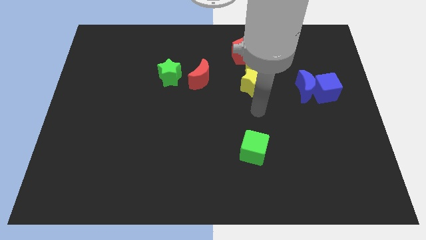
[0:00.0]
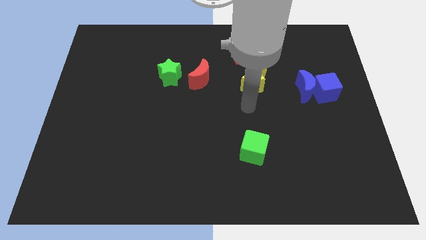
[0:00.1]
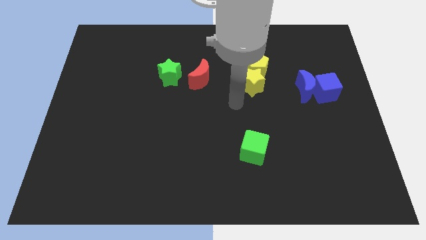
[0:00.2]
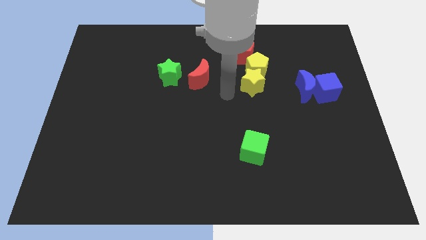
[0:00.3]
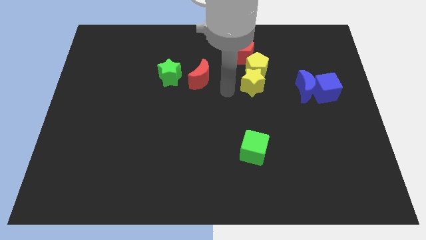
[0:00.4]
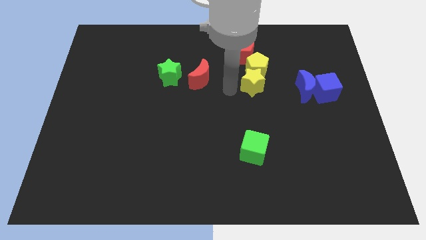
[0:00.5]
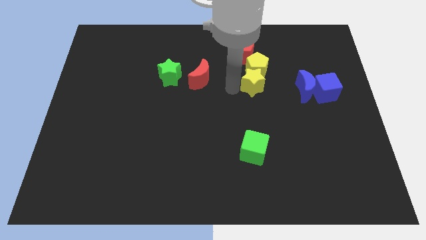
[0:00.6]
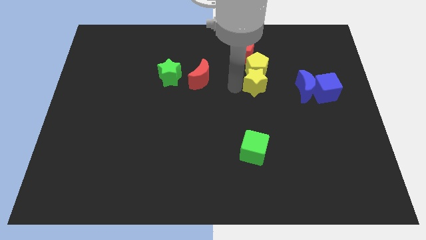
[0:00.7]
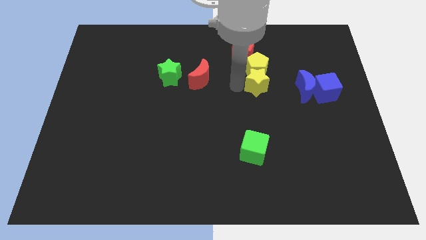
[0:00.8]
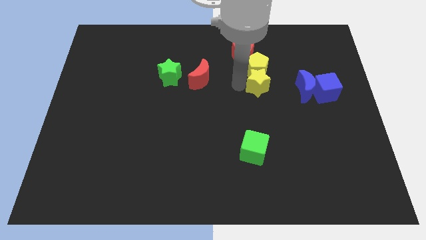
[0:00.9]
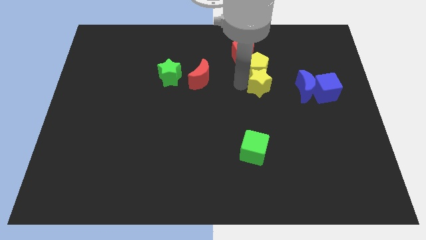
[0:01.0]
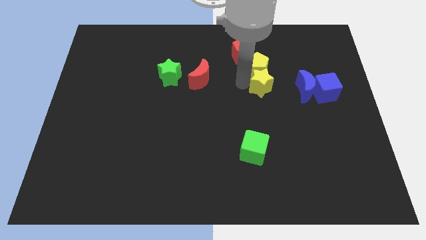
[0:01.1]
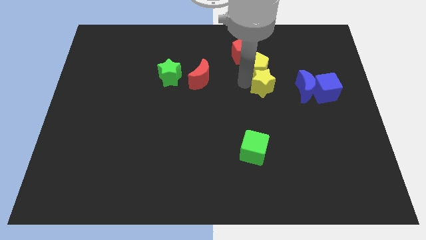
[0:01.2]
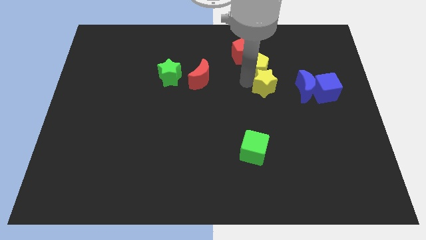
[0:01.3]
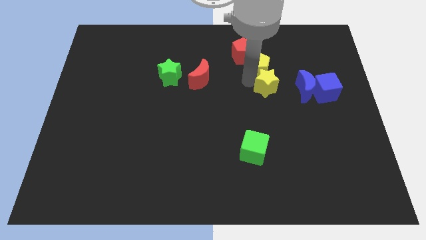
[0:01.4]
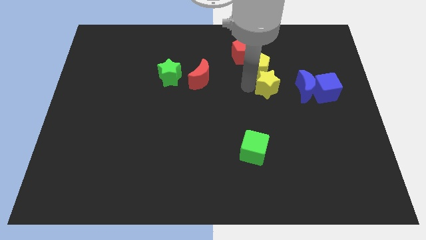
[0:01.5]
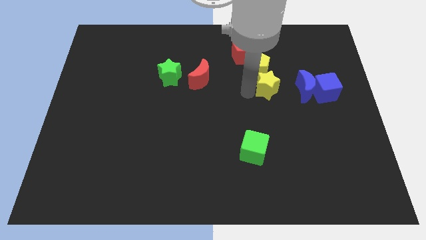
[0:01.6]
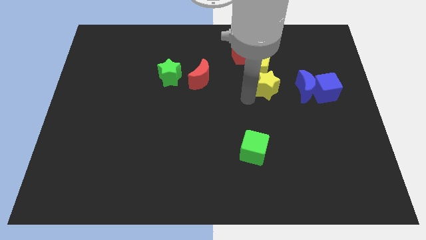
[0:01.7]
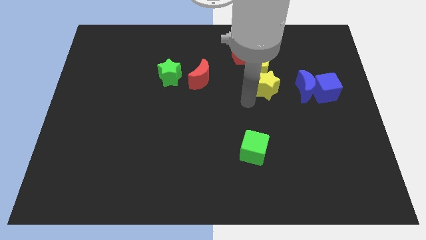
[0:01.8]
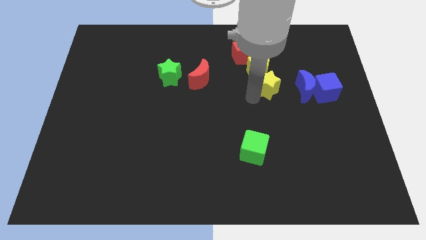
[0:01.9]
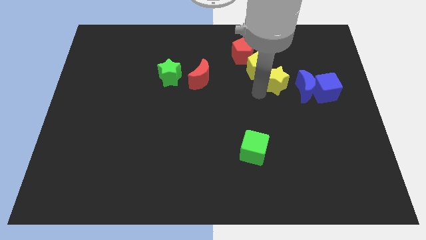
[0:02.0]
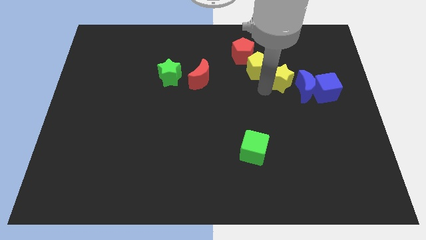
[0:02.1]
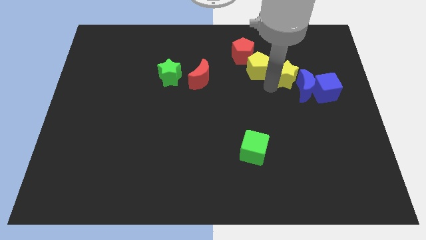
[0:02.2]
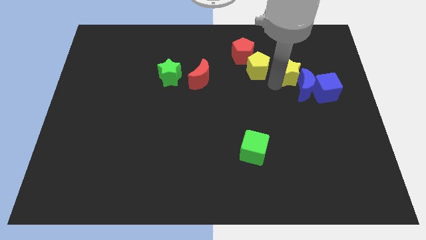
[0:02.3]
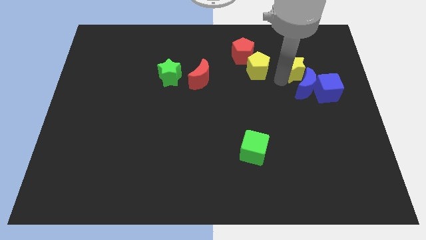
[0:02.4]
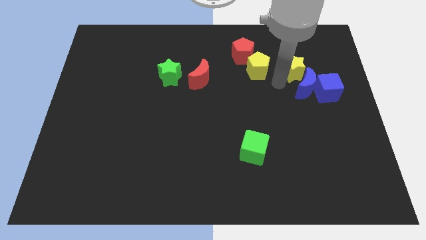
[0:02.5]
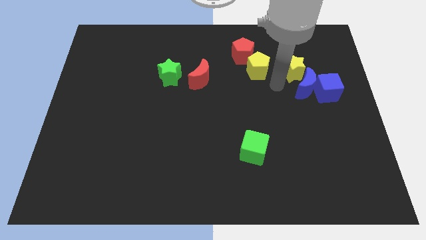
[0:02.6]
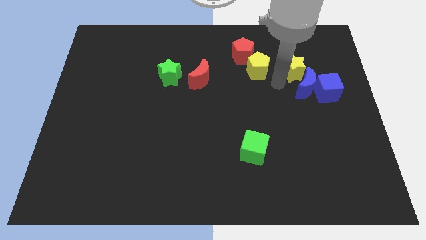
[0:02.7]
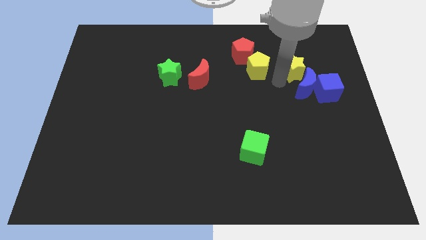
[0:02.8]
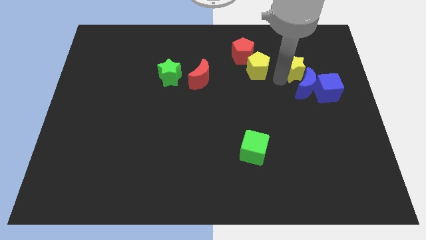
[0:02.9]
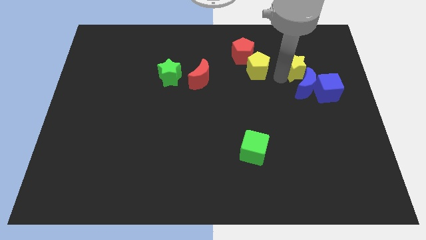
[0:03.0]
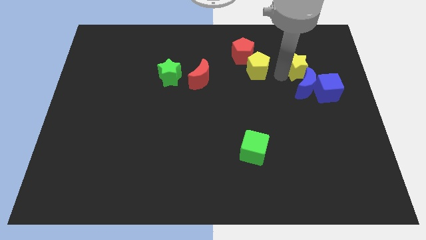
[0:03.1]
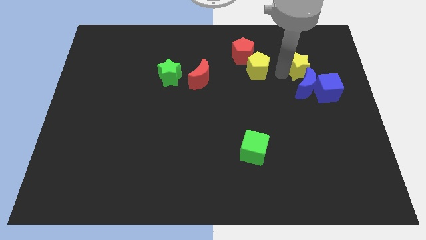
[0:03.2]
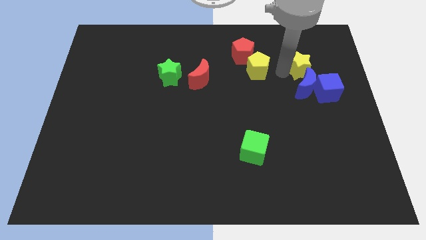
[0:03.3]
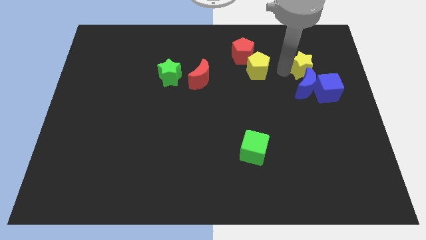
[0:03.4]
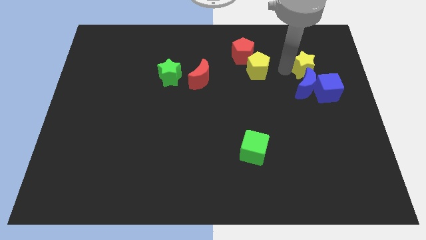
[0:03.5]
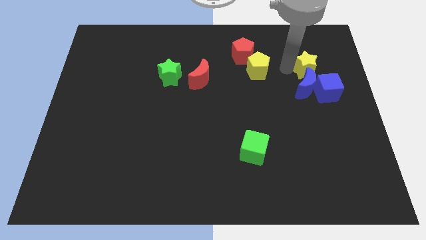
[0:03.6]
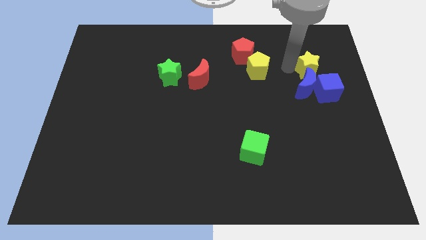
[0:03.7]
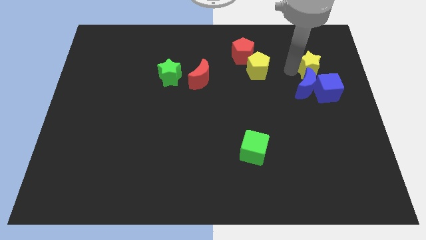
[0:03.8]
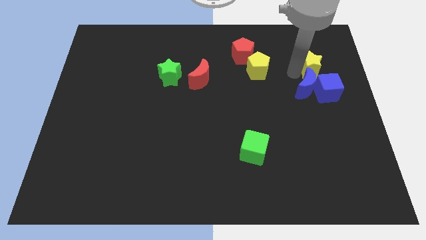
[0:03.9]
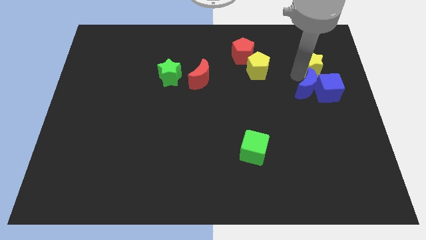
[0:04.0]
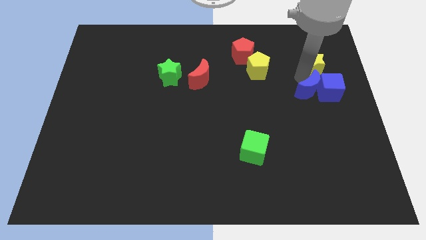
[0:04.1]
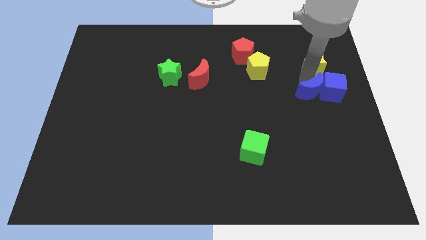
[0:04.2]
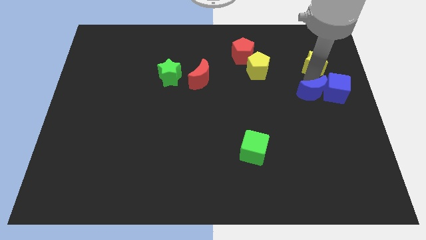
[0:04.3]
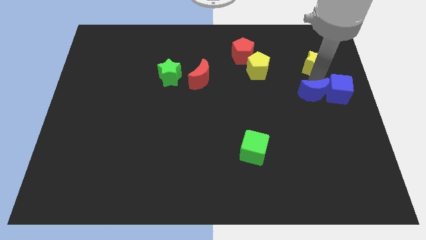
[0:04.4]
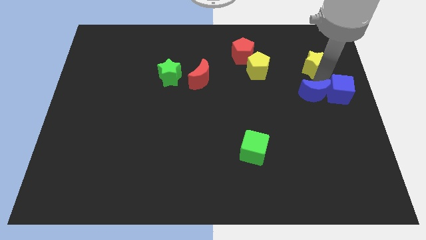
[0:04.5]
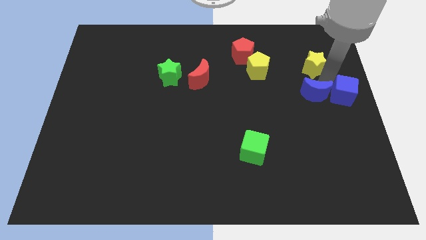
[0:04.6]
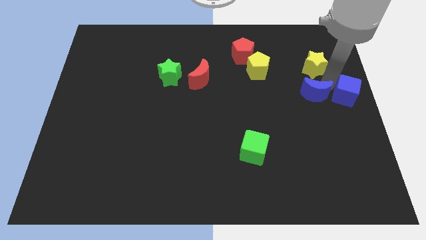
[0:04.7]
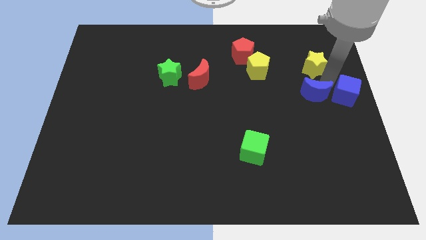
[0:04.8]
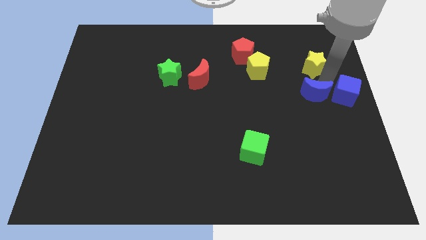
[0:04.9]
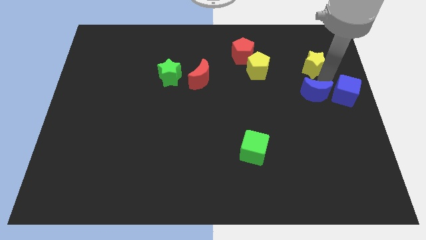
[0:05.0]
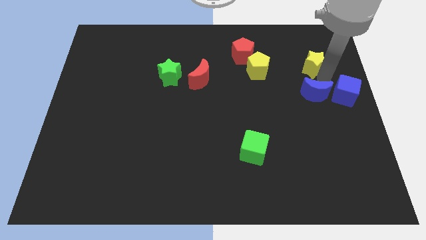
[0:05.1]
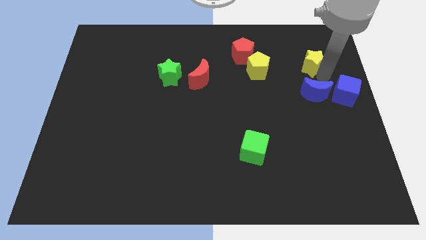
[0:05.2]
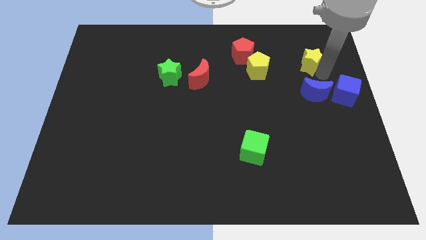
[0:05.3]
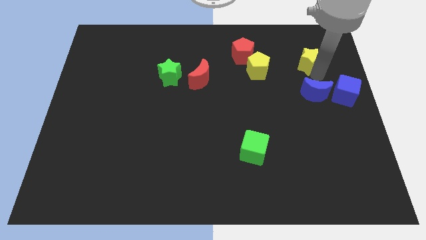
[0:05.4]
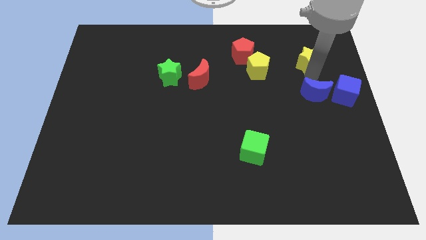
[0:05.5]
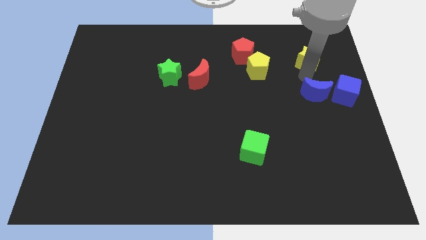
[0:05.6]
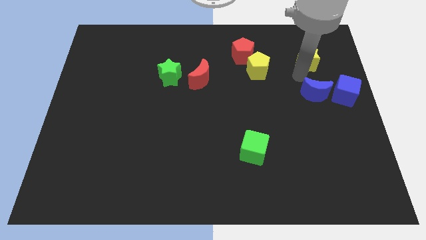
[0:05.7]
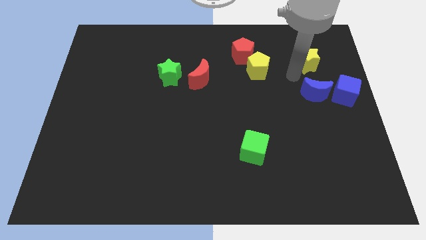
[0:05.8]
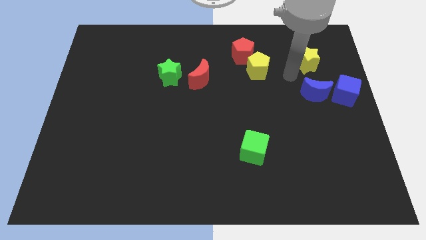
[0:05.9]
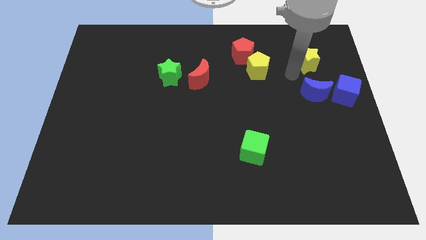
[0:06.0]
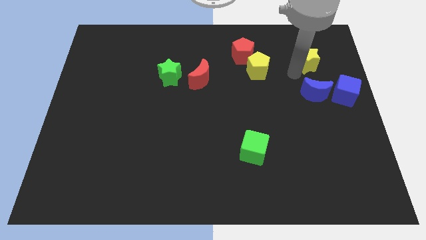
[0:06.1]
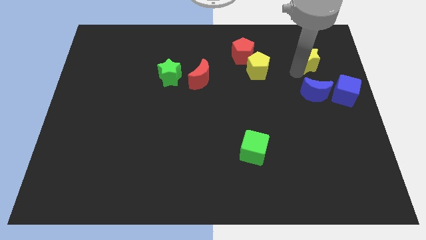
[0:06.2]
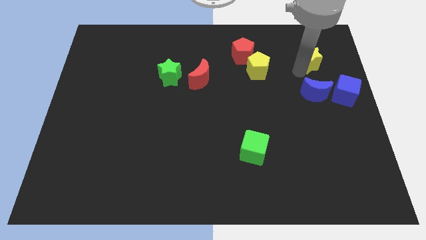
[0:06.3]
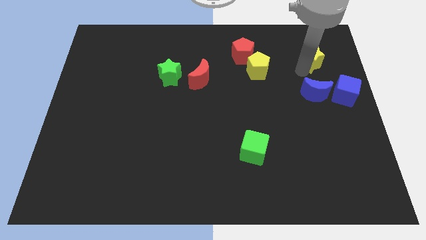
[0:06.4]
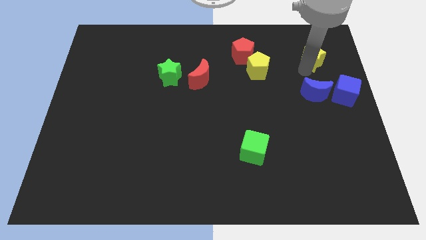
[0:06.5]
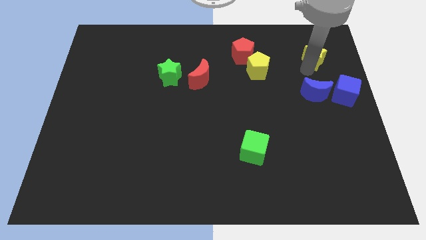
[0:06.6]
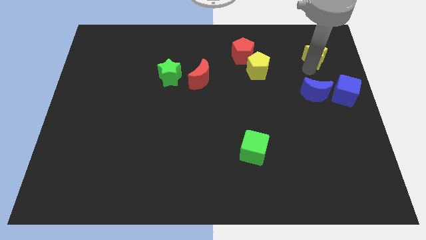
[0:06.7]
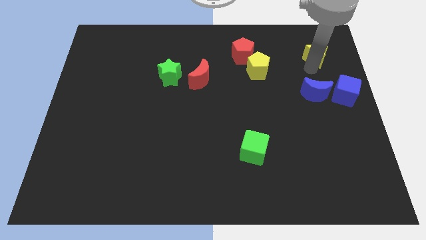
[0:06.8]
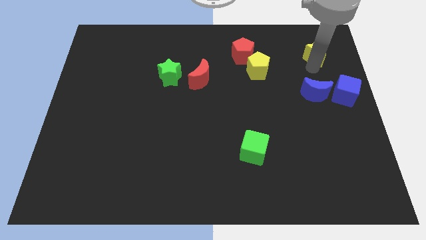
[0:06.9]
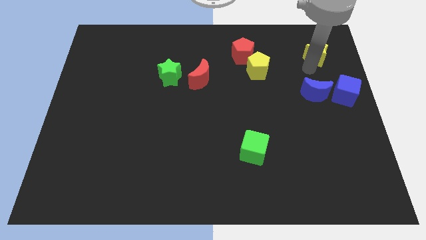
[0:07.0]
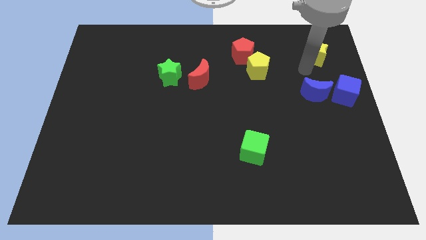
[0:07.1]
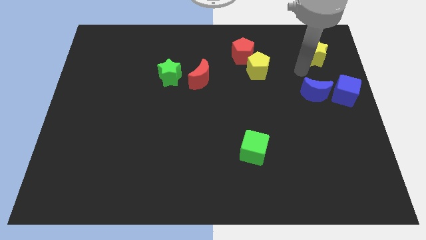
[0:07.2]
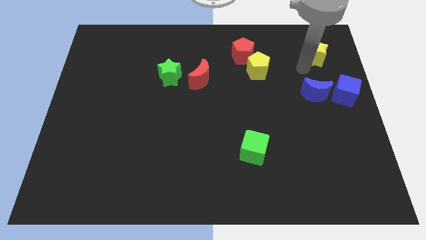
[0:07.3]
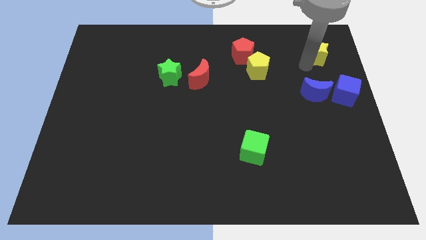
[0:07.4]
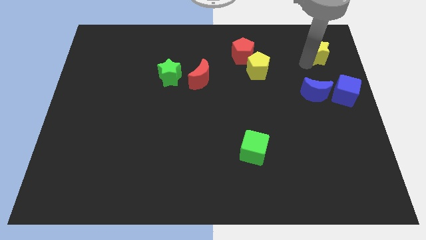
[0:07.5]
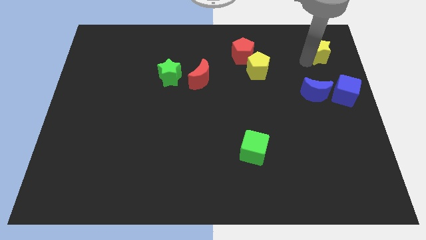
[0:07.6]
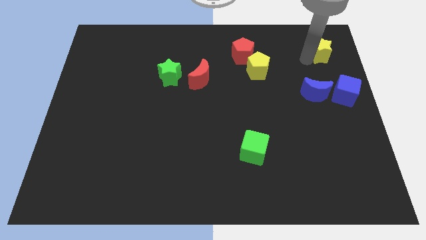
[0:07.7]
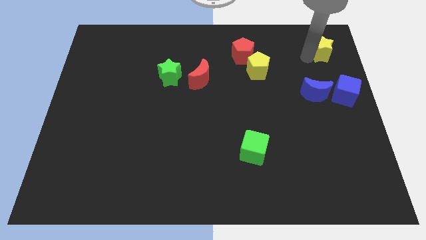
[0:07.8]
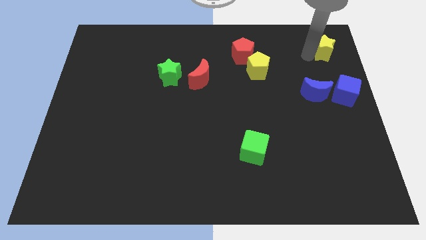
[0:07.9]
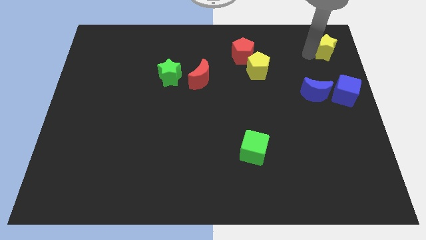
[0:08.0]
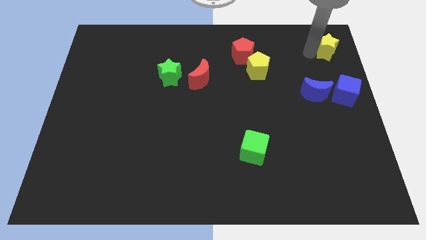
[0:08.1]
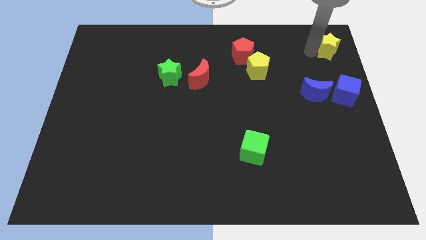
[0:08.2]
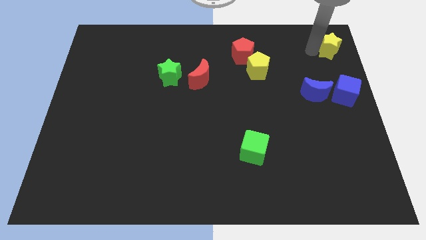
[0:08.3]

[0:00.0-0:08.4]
put the yellow star to the top right

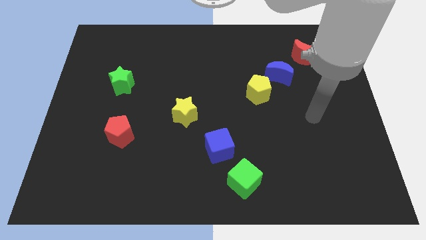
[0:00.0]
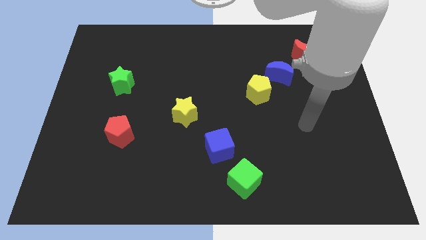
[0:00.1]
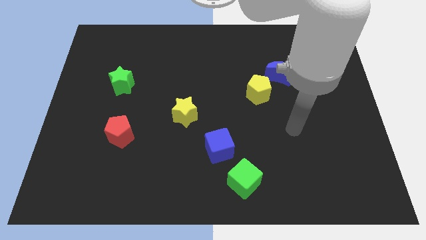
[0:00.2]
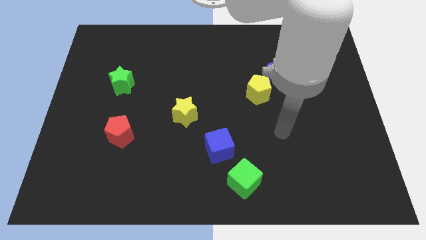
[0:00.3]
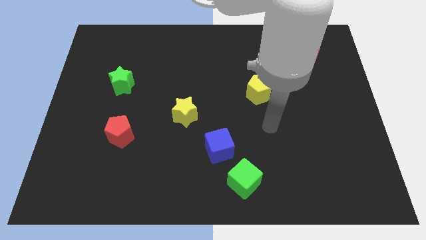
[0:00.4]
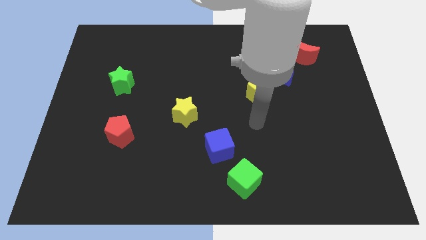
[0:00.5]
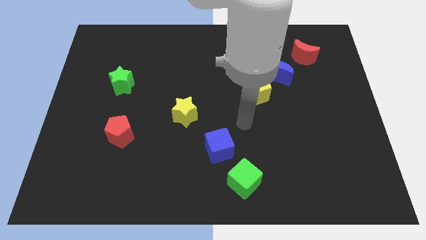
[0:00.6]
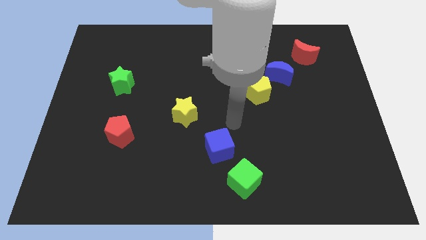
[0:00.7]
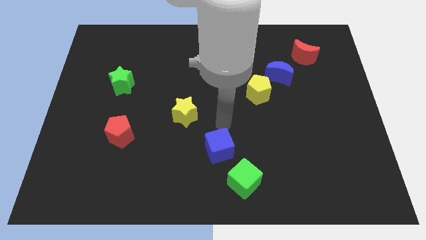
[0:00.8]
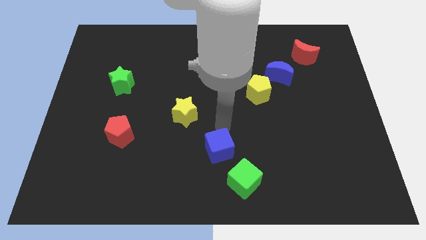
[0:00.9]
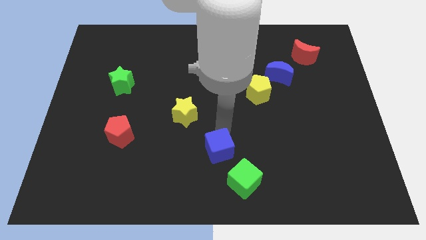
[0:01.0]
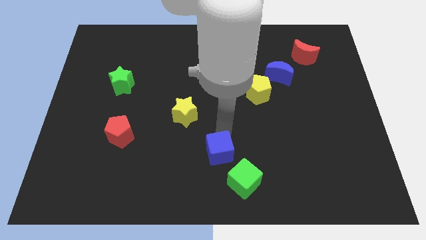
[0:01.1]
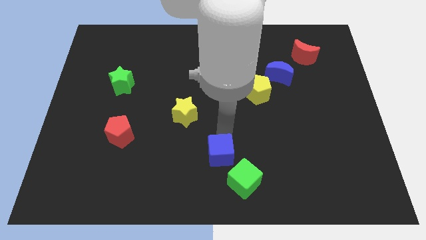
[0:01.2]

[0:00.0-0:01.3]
push the blue cube to the bottom
